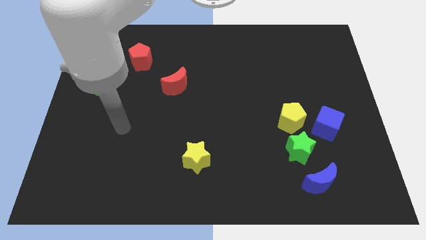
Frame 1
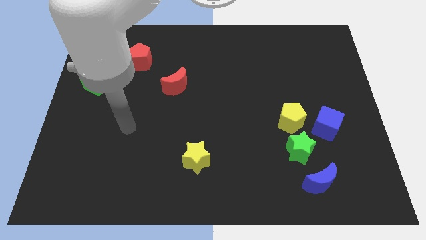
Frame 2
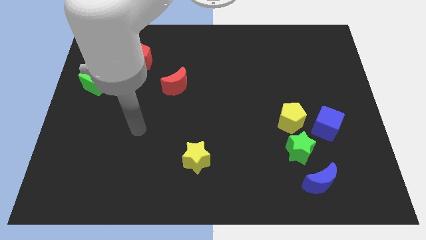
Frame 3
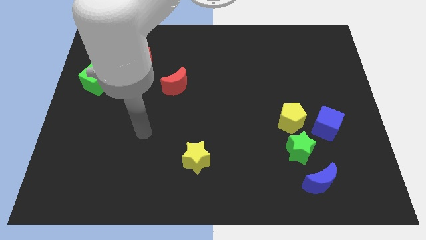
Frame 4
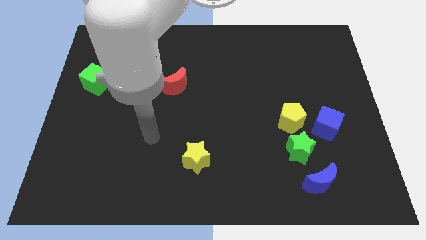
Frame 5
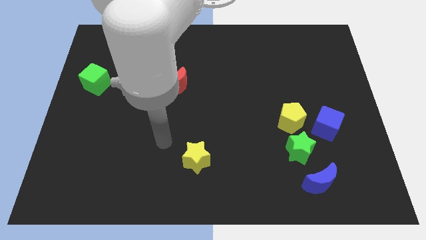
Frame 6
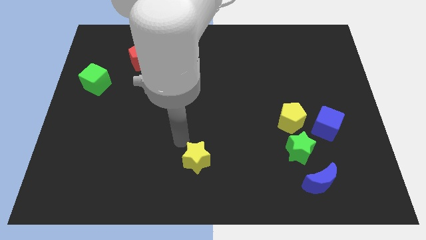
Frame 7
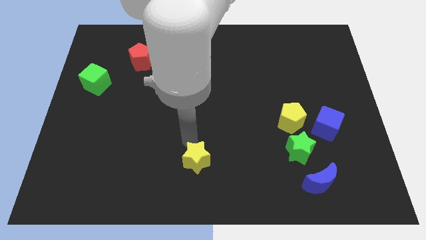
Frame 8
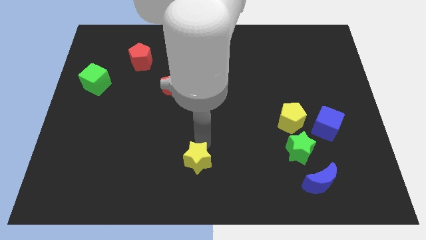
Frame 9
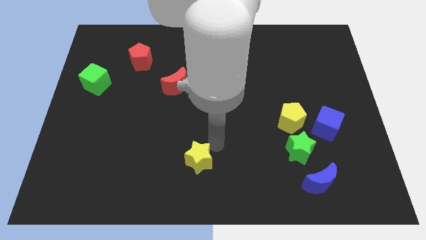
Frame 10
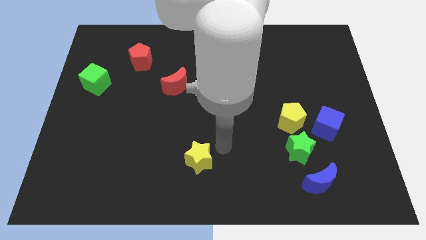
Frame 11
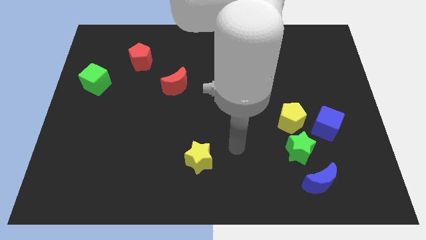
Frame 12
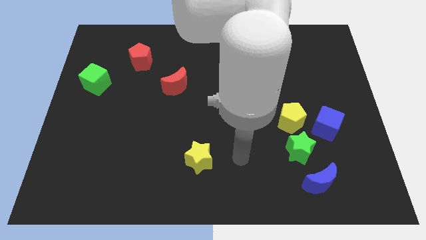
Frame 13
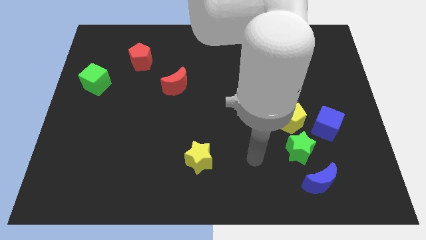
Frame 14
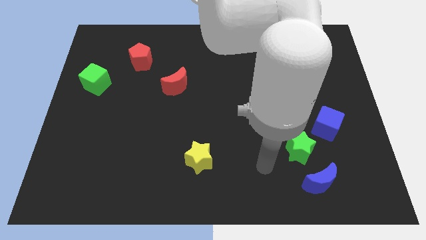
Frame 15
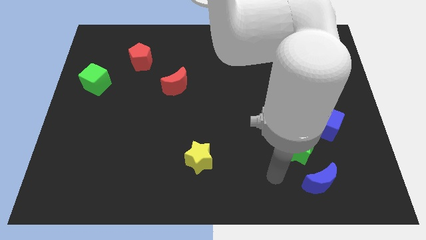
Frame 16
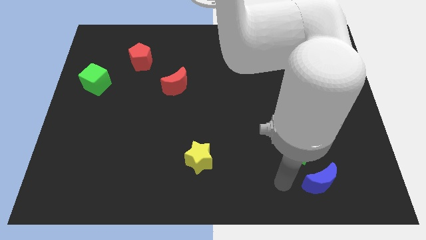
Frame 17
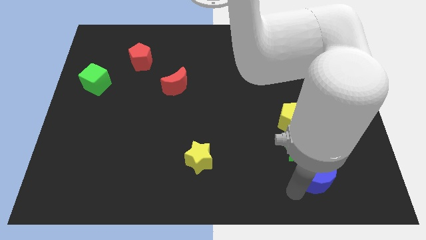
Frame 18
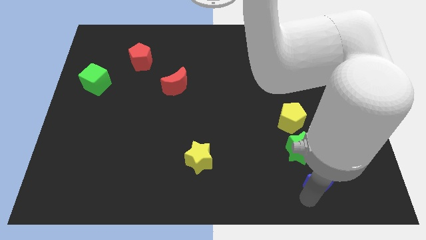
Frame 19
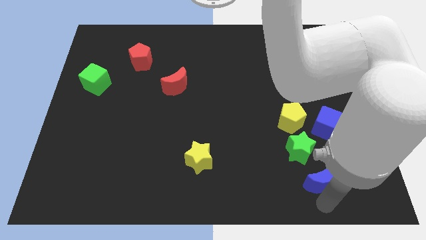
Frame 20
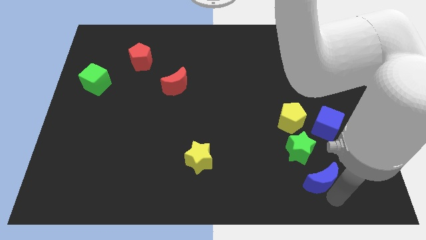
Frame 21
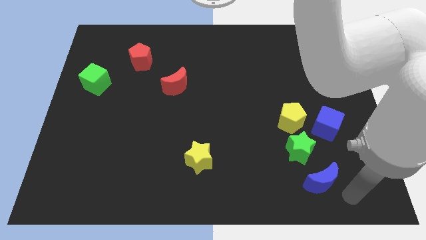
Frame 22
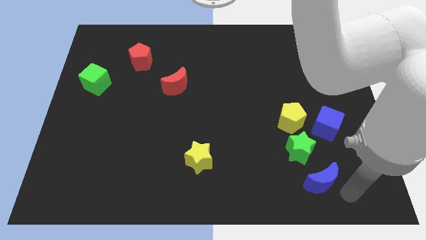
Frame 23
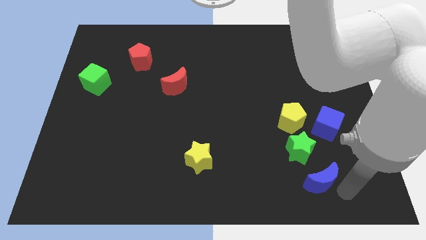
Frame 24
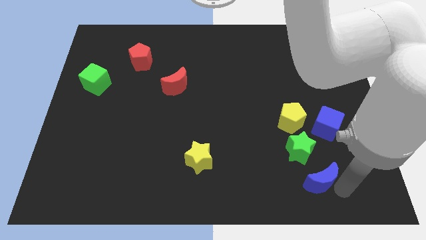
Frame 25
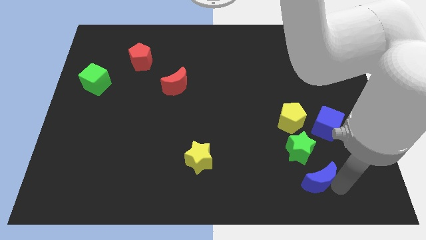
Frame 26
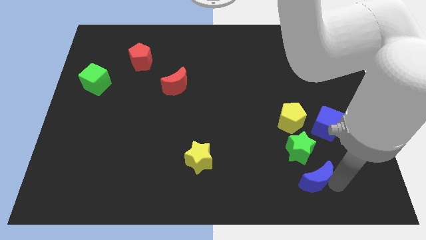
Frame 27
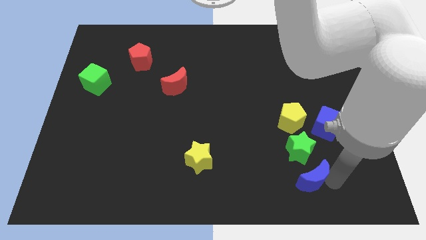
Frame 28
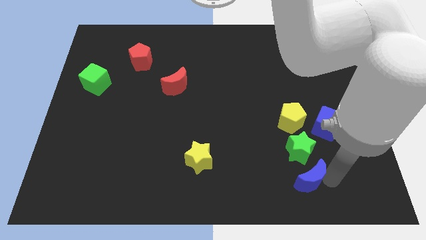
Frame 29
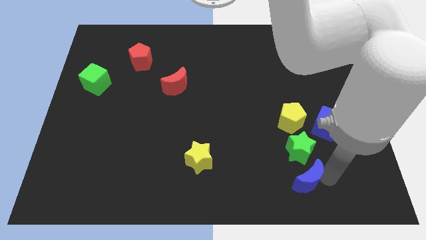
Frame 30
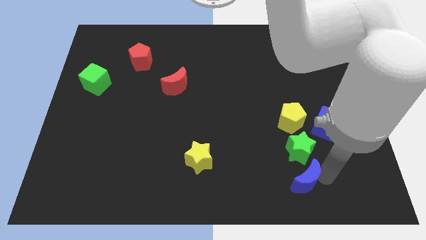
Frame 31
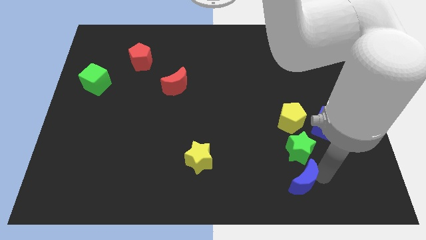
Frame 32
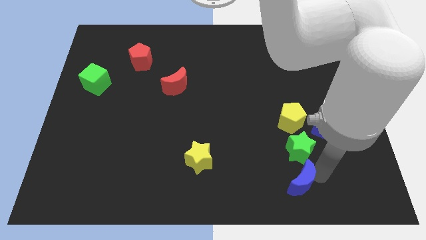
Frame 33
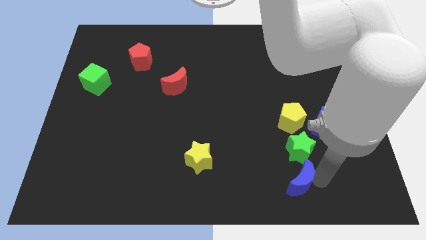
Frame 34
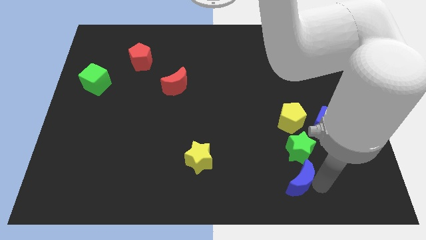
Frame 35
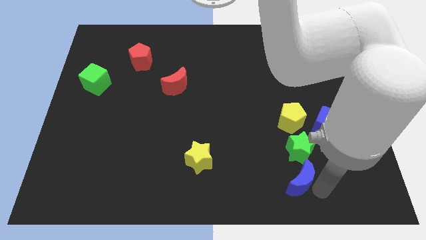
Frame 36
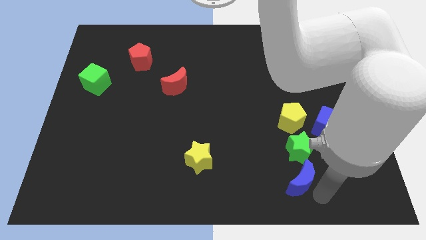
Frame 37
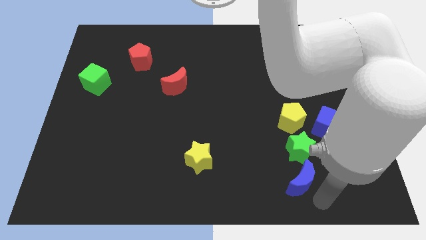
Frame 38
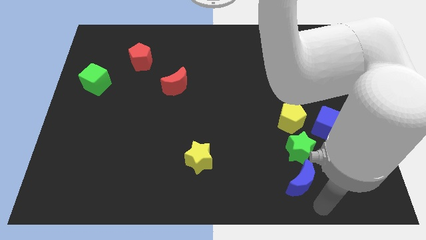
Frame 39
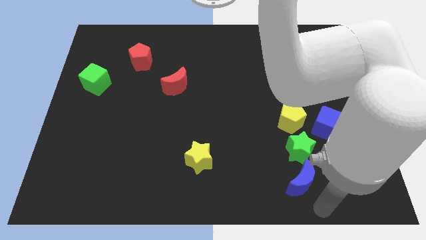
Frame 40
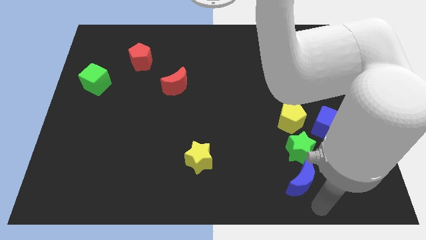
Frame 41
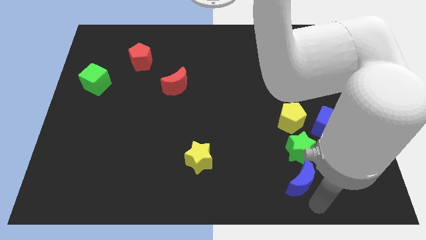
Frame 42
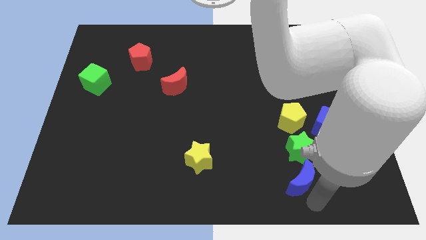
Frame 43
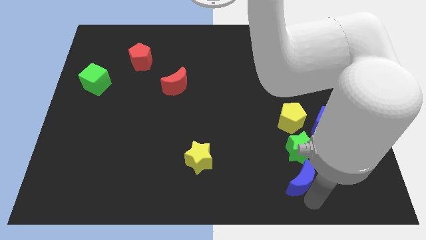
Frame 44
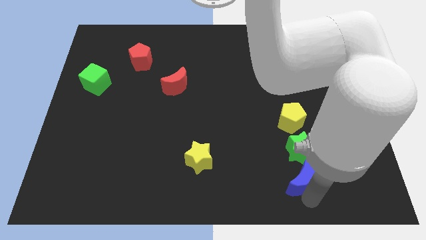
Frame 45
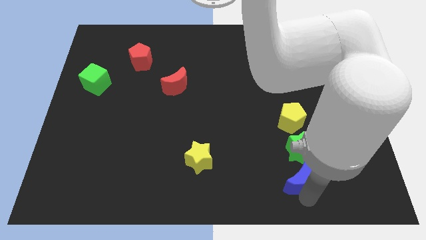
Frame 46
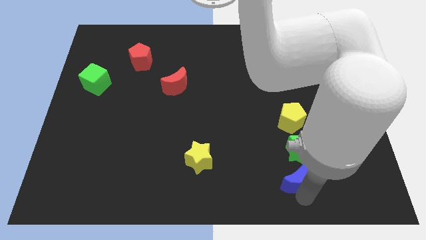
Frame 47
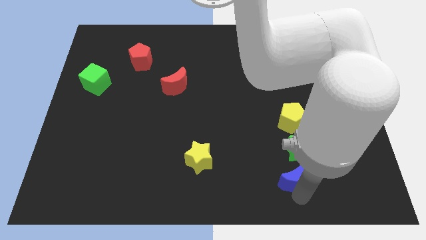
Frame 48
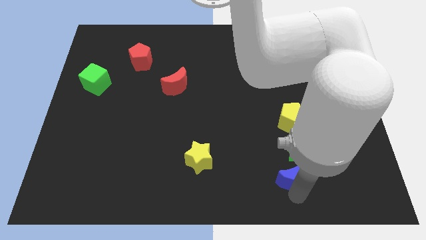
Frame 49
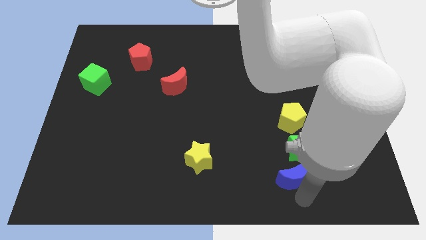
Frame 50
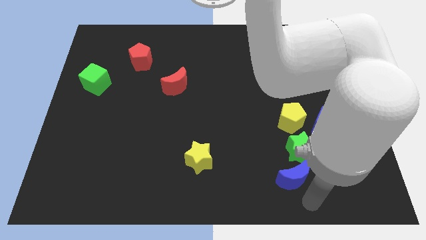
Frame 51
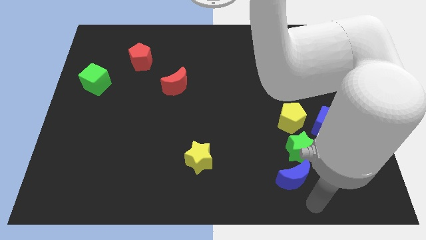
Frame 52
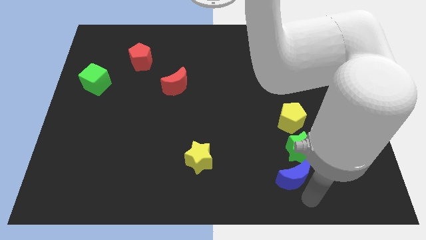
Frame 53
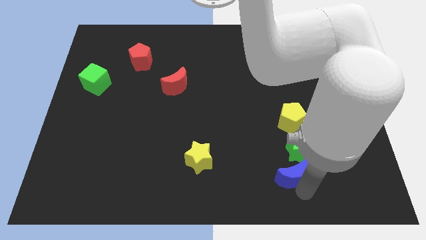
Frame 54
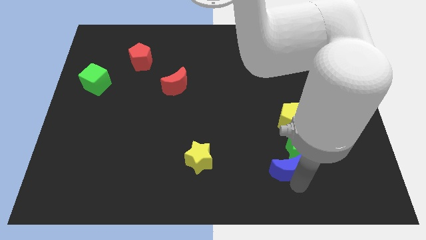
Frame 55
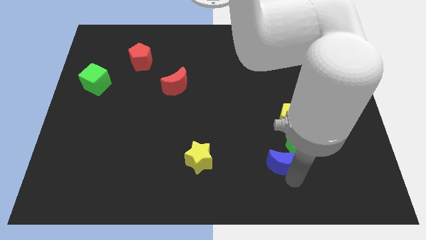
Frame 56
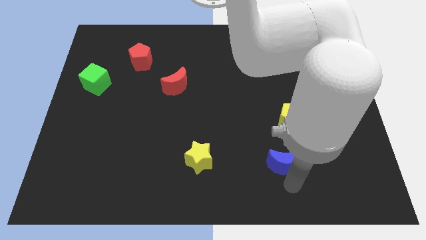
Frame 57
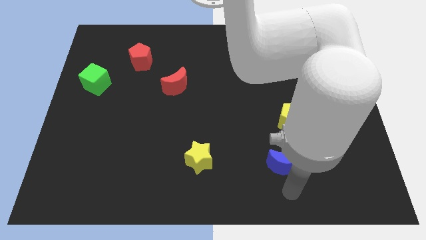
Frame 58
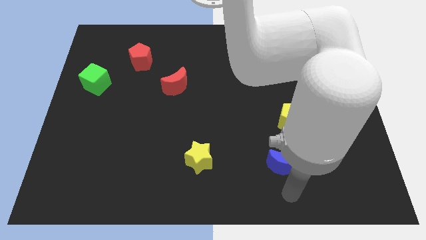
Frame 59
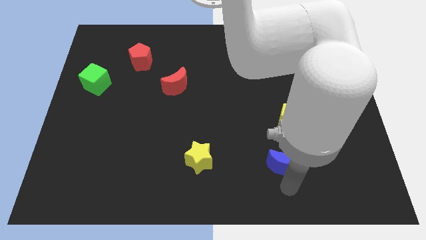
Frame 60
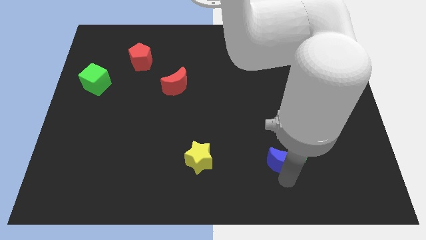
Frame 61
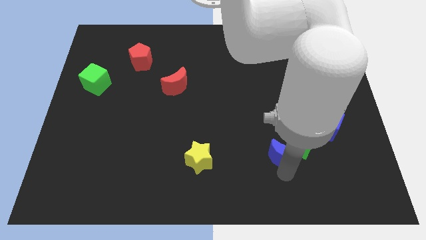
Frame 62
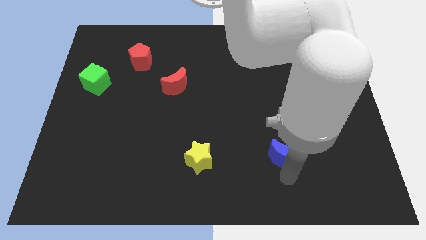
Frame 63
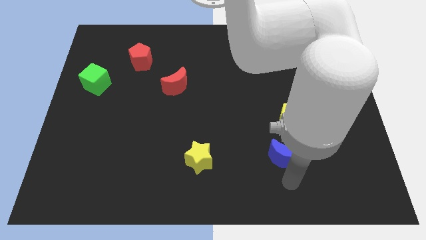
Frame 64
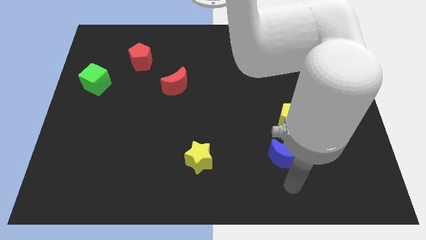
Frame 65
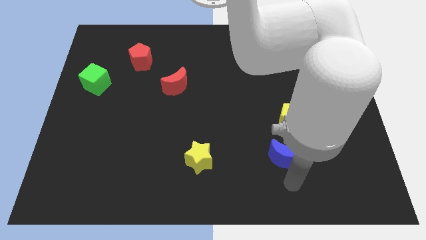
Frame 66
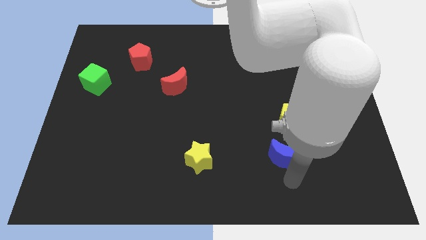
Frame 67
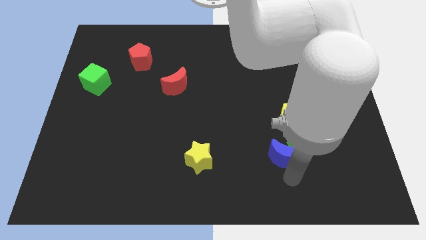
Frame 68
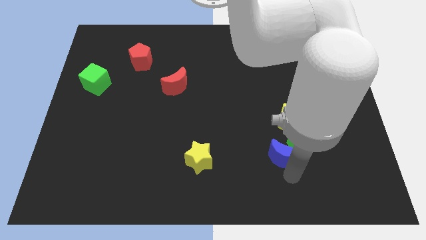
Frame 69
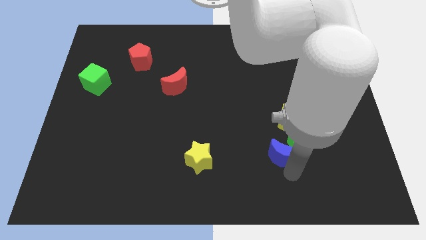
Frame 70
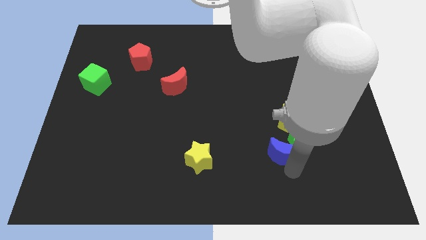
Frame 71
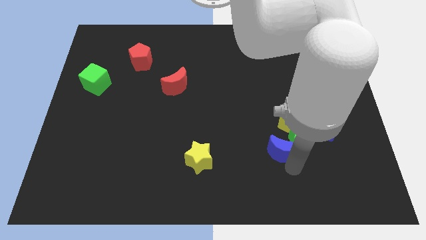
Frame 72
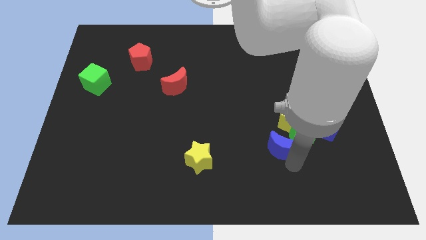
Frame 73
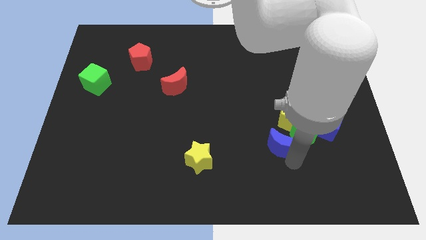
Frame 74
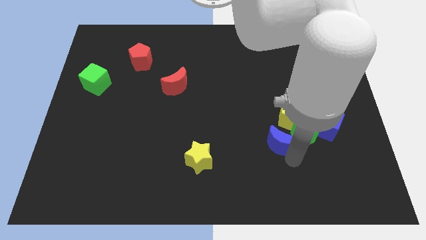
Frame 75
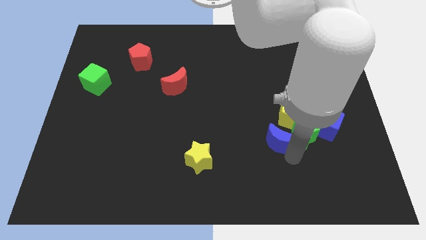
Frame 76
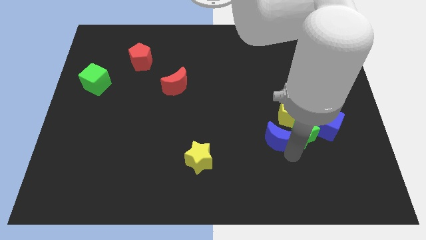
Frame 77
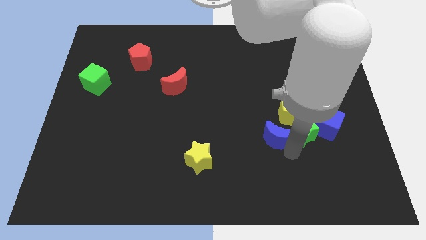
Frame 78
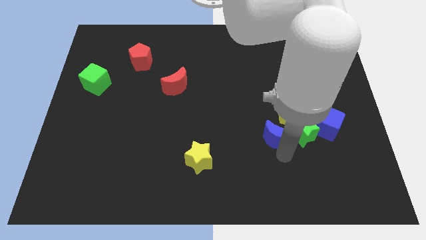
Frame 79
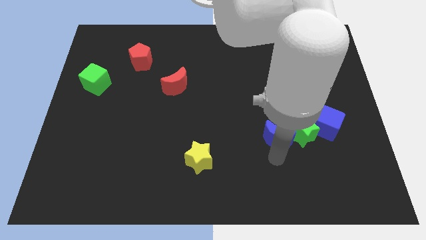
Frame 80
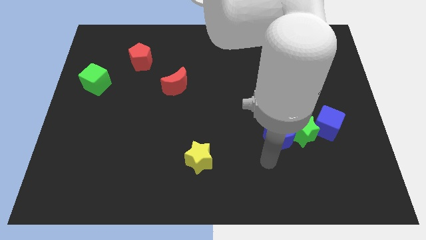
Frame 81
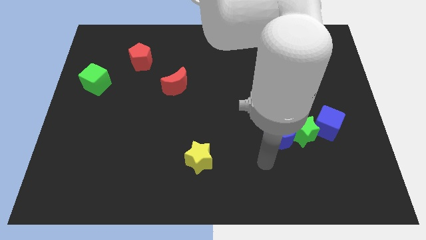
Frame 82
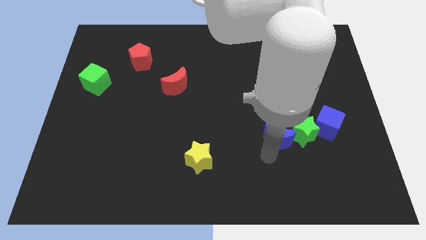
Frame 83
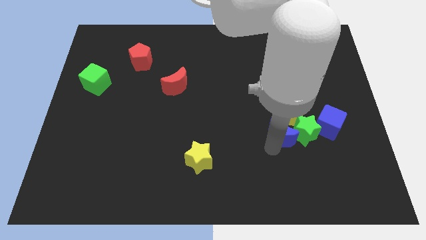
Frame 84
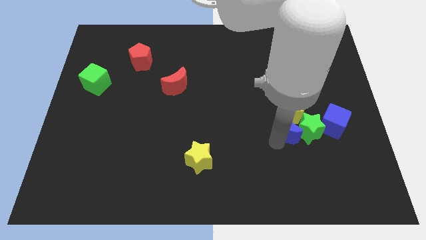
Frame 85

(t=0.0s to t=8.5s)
push the blue moon towards the yellow pentagon
